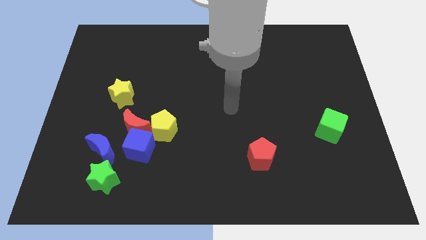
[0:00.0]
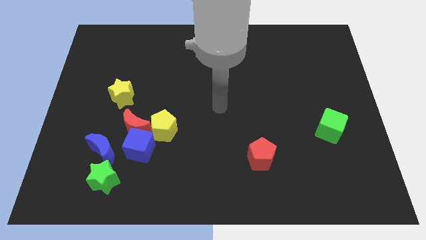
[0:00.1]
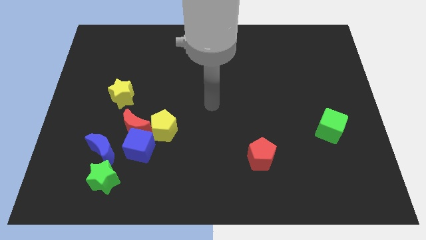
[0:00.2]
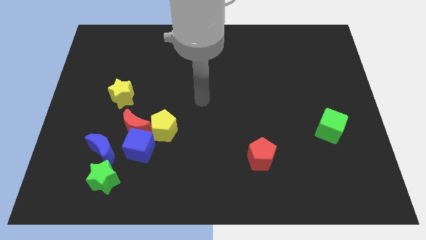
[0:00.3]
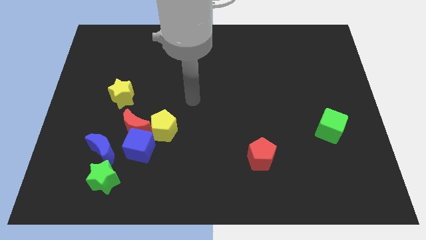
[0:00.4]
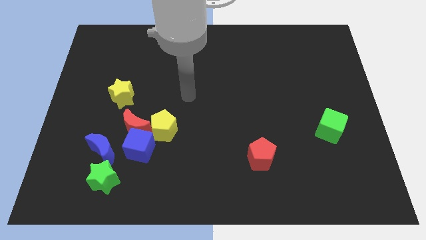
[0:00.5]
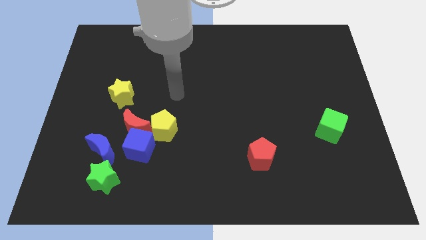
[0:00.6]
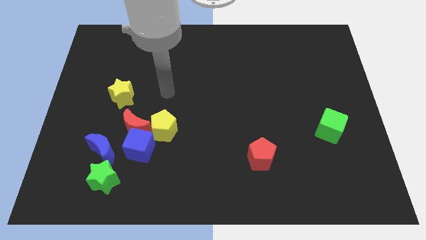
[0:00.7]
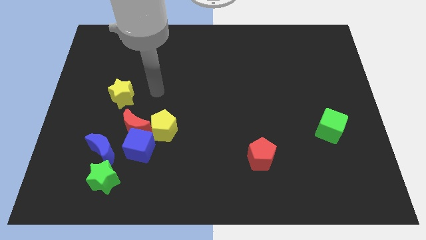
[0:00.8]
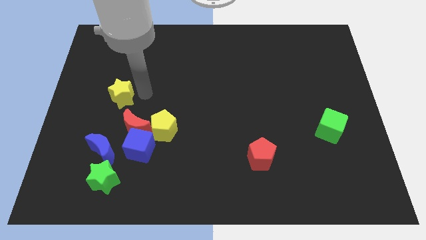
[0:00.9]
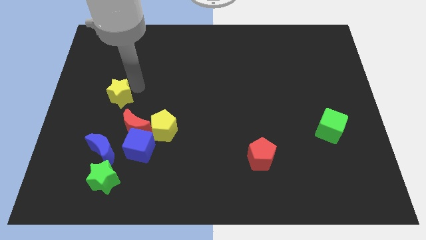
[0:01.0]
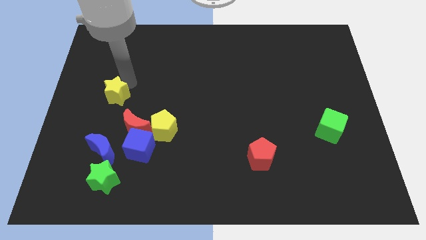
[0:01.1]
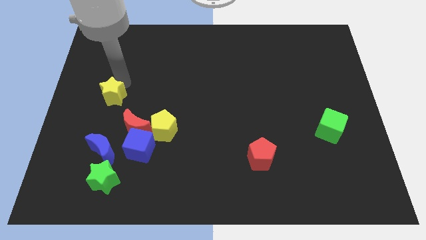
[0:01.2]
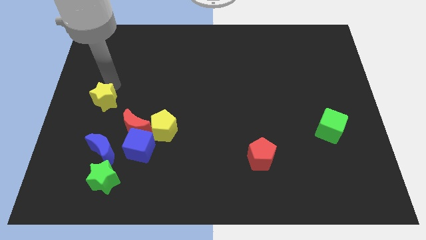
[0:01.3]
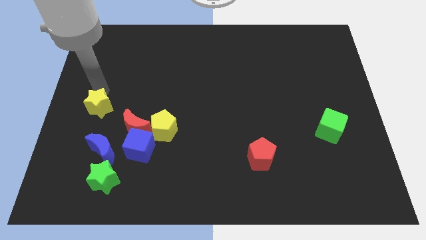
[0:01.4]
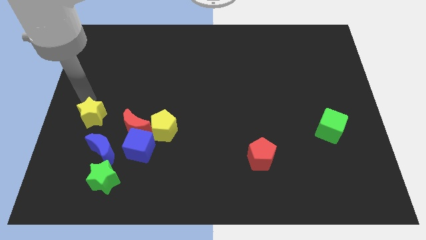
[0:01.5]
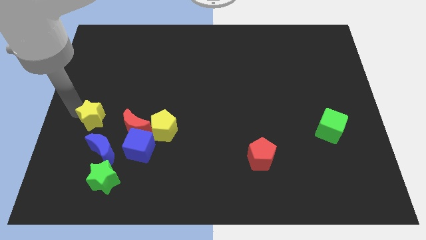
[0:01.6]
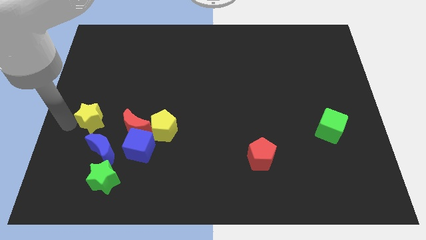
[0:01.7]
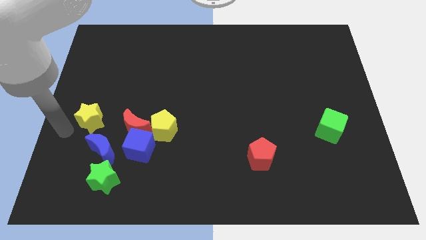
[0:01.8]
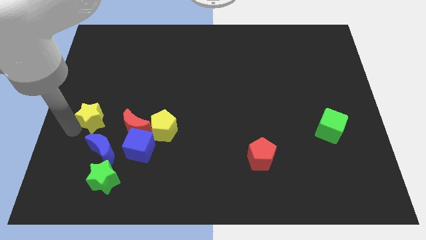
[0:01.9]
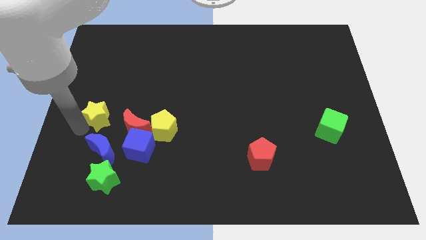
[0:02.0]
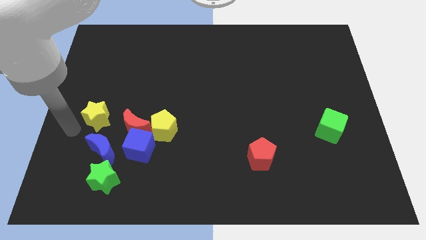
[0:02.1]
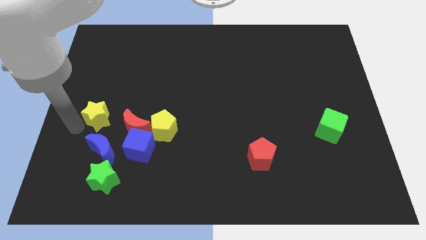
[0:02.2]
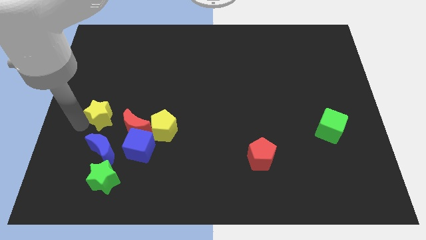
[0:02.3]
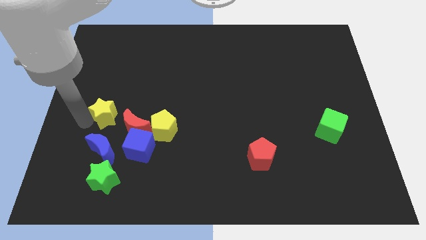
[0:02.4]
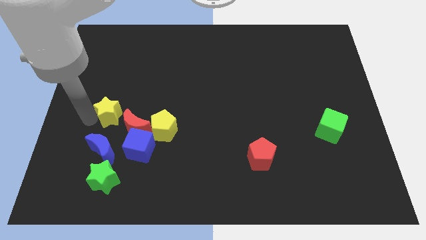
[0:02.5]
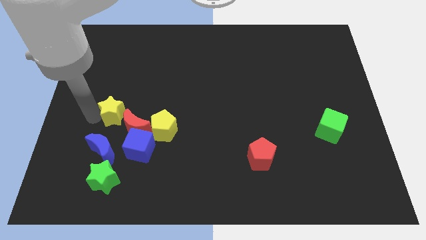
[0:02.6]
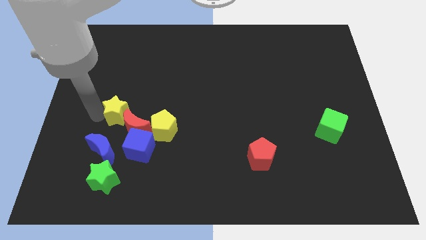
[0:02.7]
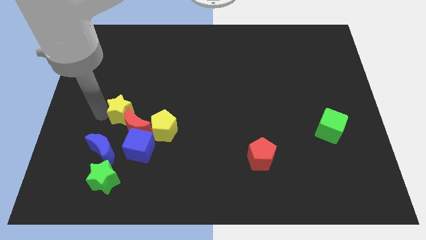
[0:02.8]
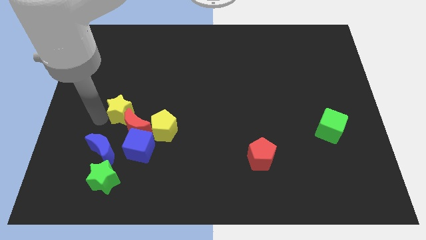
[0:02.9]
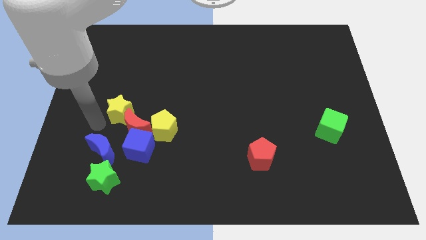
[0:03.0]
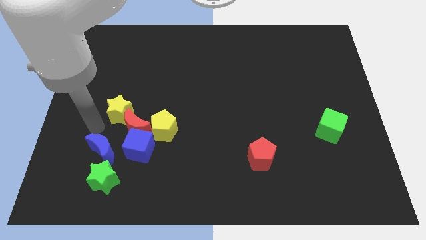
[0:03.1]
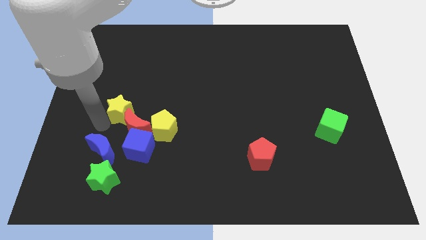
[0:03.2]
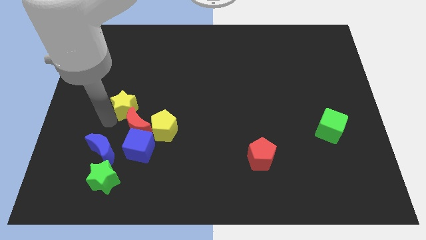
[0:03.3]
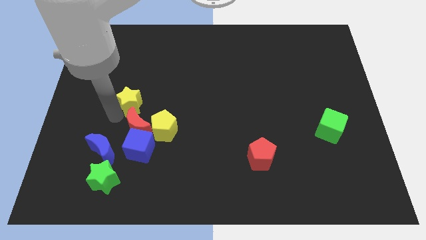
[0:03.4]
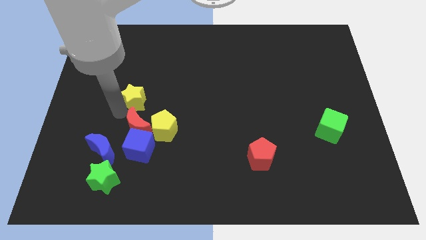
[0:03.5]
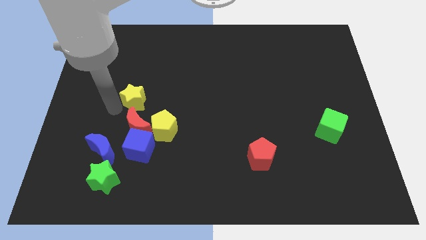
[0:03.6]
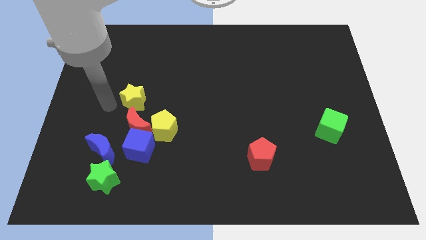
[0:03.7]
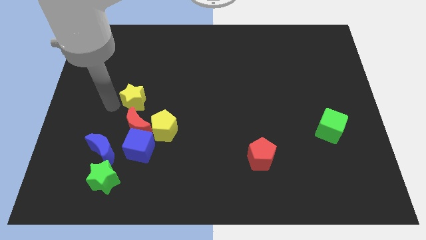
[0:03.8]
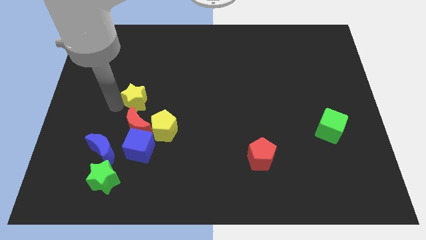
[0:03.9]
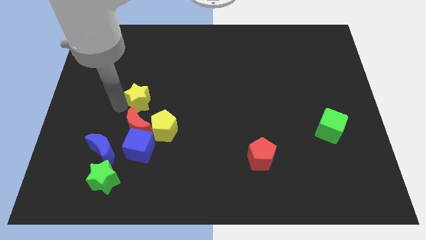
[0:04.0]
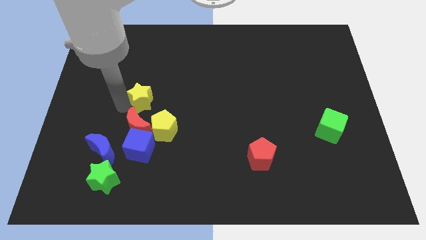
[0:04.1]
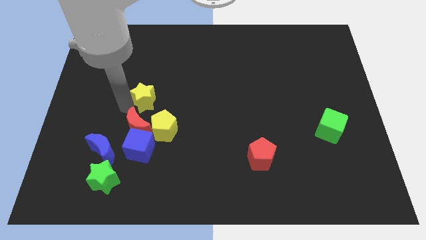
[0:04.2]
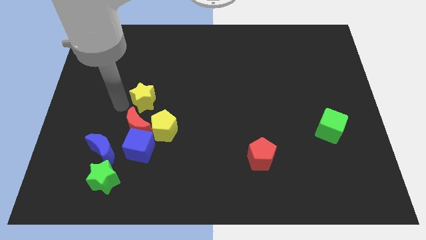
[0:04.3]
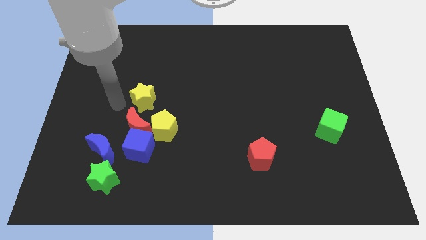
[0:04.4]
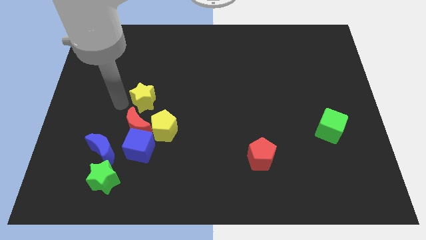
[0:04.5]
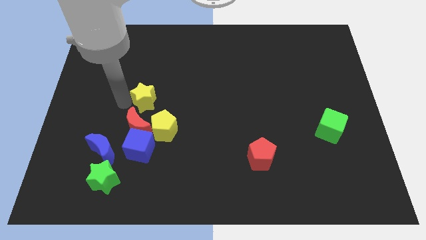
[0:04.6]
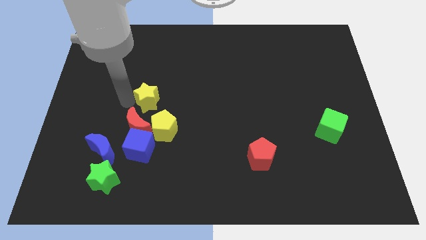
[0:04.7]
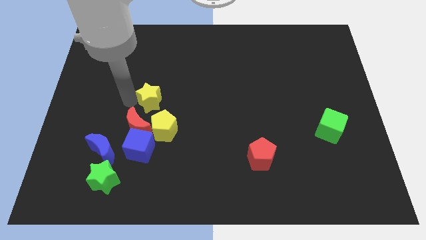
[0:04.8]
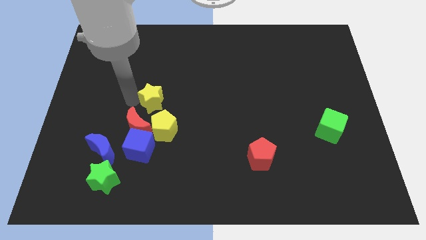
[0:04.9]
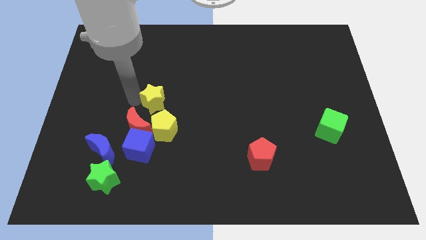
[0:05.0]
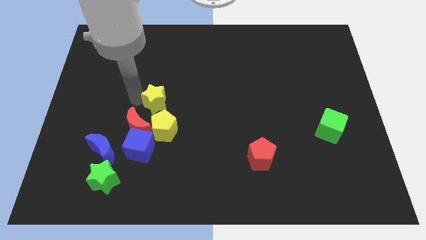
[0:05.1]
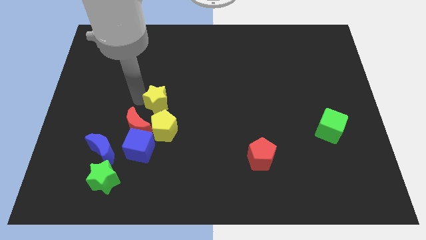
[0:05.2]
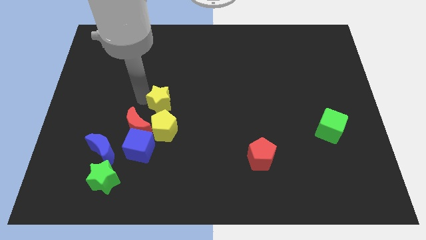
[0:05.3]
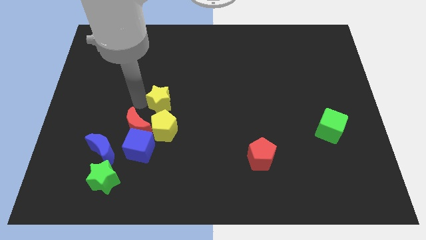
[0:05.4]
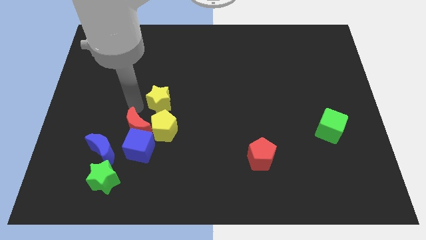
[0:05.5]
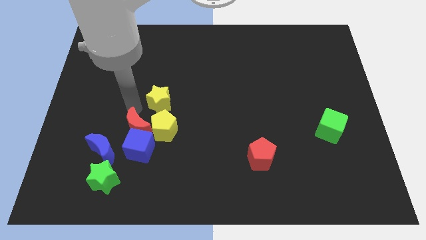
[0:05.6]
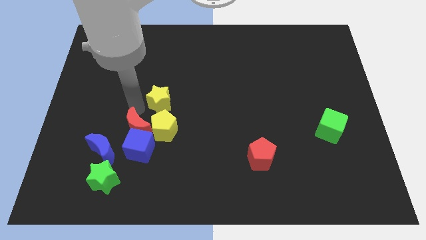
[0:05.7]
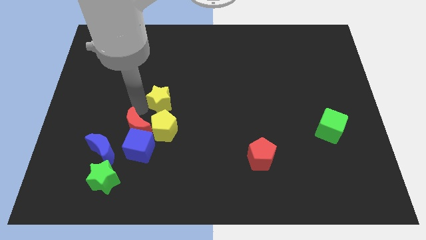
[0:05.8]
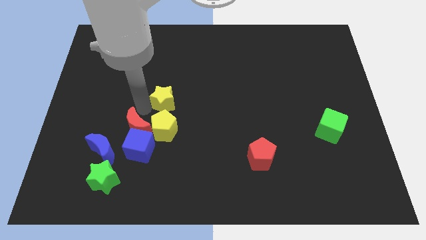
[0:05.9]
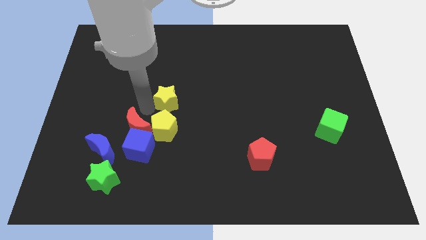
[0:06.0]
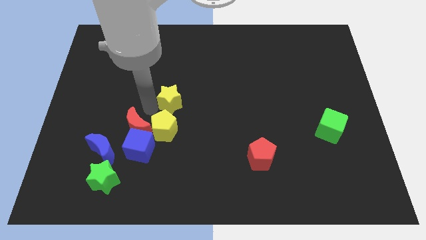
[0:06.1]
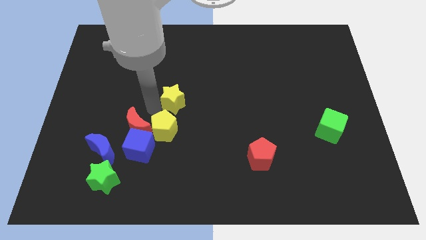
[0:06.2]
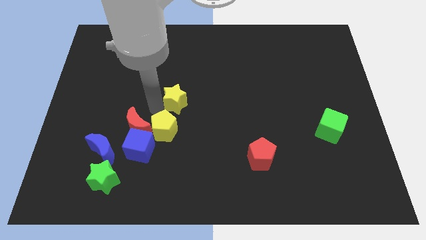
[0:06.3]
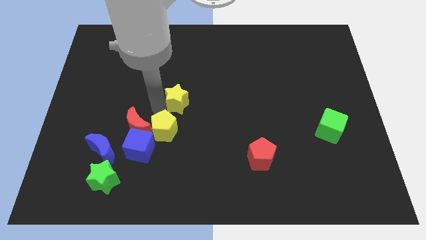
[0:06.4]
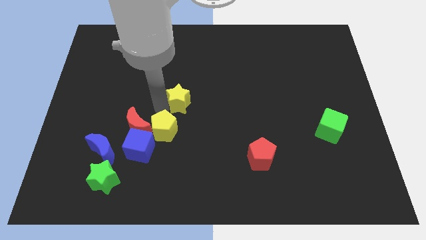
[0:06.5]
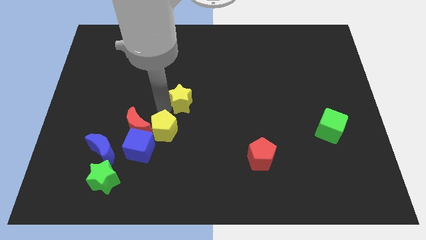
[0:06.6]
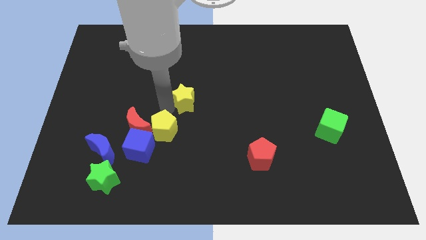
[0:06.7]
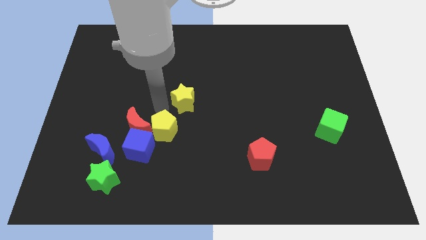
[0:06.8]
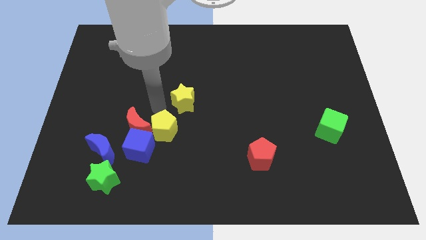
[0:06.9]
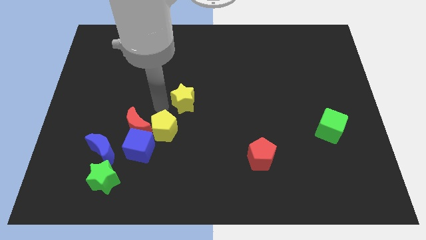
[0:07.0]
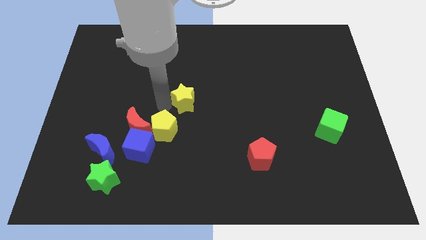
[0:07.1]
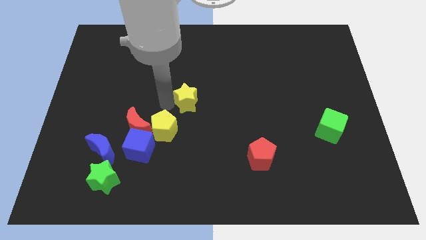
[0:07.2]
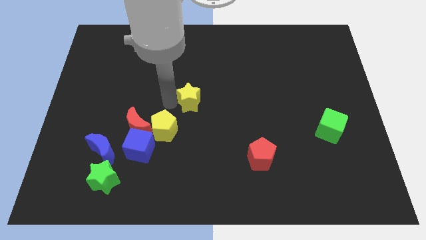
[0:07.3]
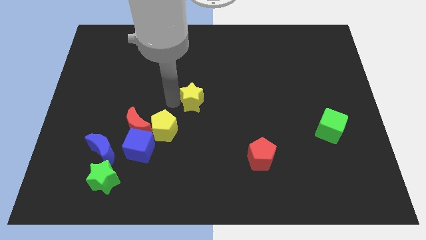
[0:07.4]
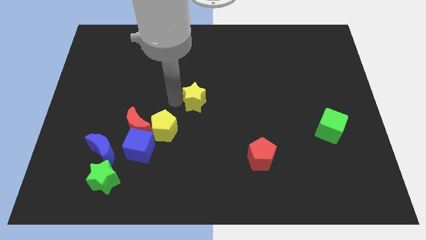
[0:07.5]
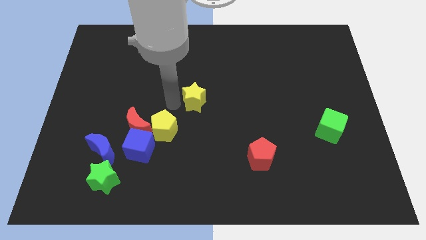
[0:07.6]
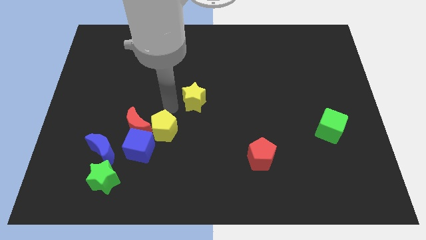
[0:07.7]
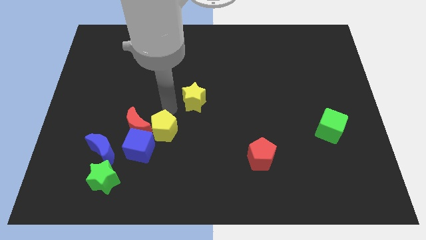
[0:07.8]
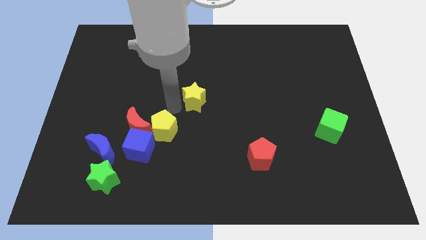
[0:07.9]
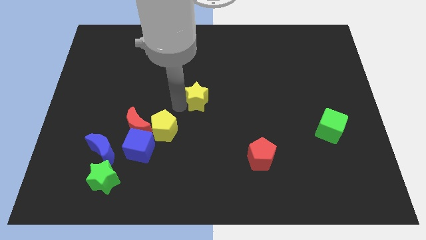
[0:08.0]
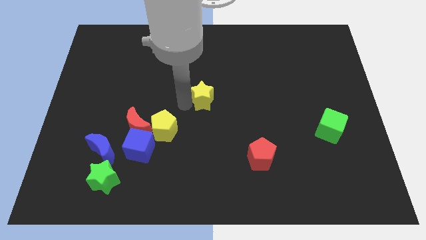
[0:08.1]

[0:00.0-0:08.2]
push the yellow star to the right

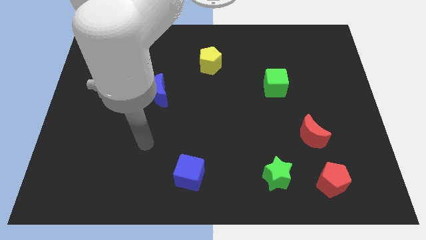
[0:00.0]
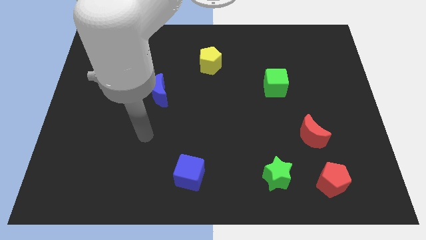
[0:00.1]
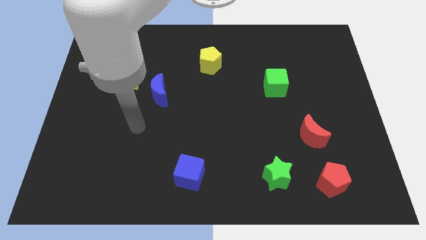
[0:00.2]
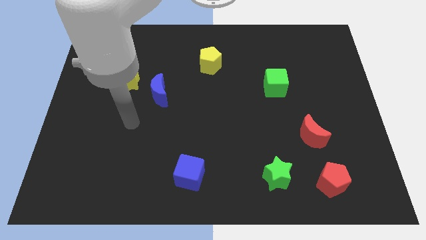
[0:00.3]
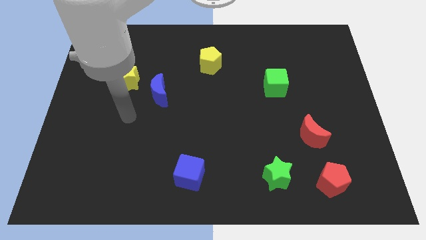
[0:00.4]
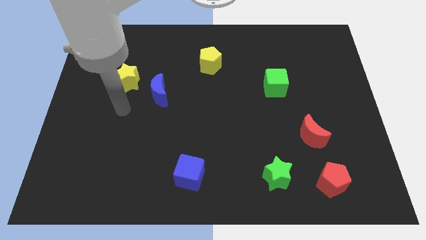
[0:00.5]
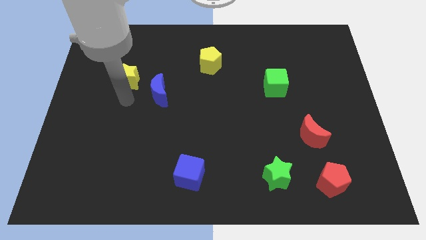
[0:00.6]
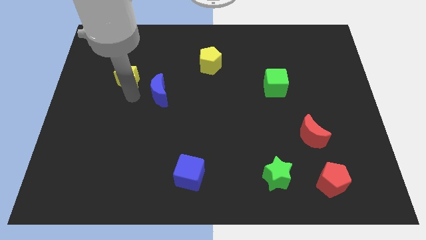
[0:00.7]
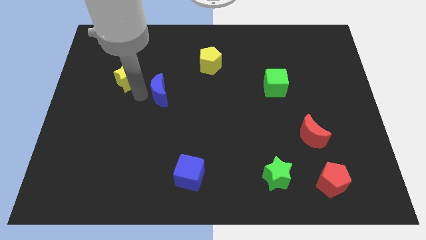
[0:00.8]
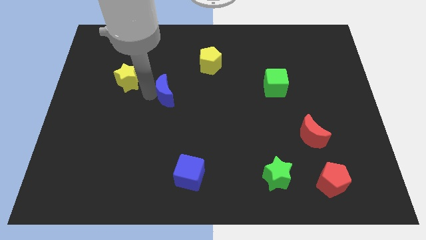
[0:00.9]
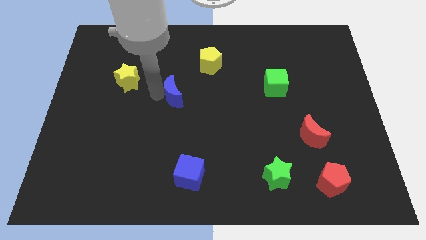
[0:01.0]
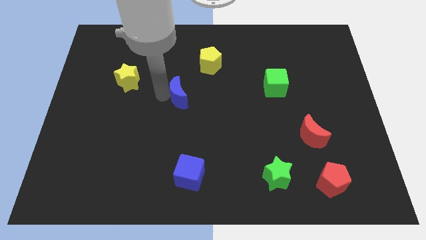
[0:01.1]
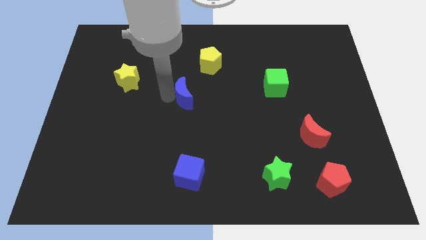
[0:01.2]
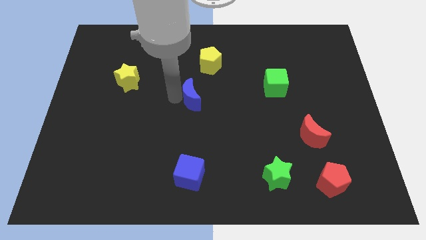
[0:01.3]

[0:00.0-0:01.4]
push the blue moon to the right slightly
